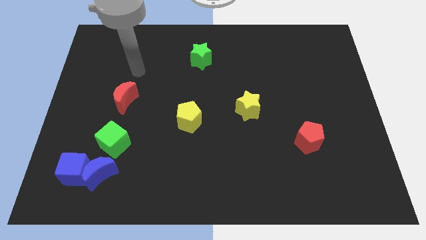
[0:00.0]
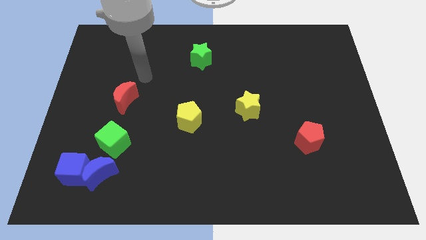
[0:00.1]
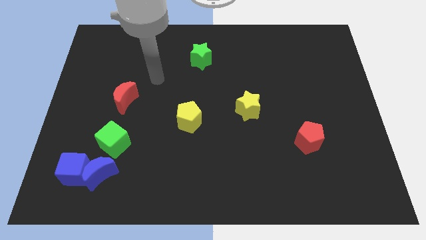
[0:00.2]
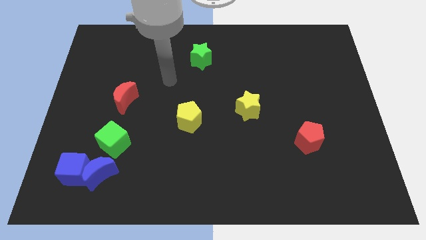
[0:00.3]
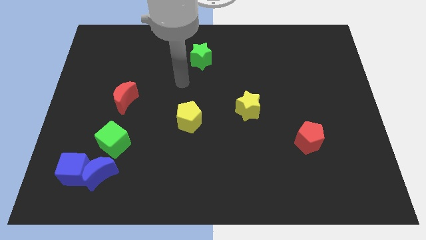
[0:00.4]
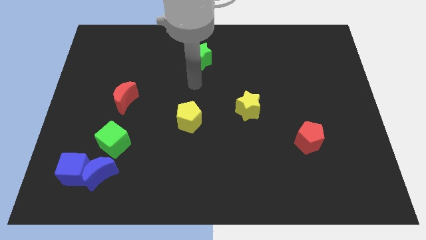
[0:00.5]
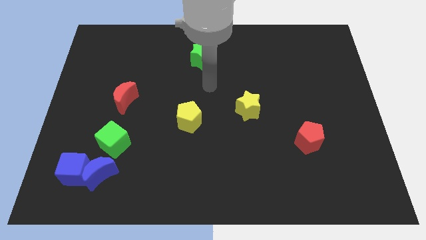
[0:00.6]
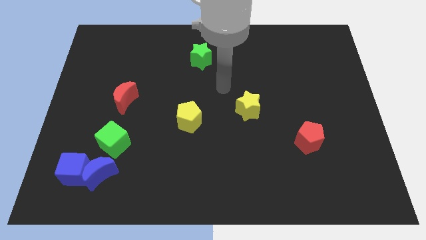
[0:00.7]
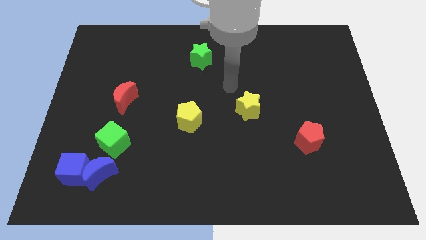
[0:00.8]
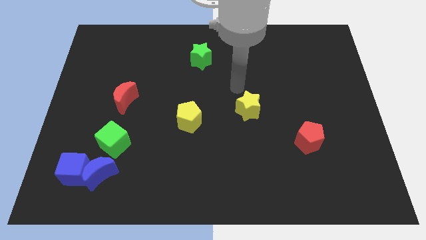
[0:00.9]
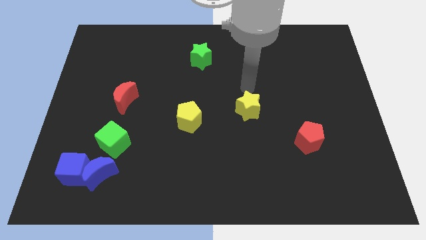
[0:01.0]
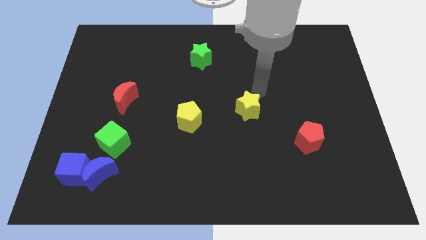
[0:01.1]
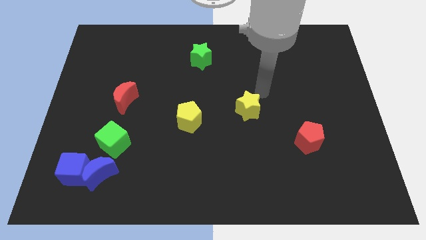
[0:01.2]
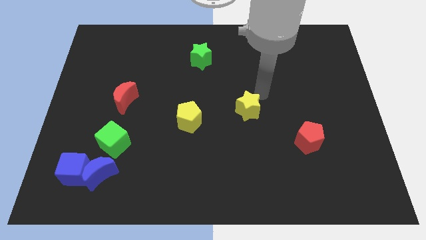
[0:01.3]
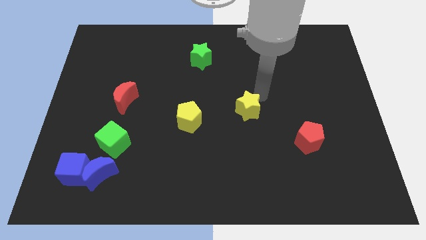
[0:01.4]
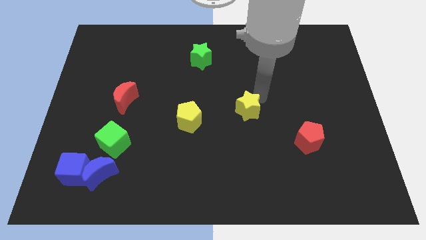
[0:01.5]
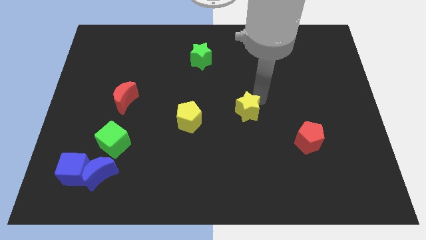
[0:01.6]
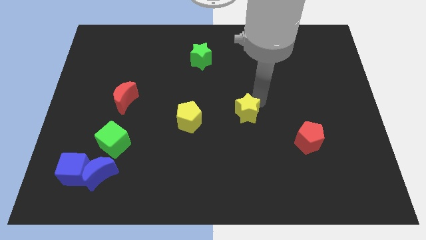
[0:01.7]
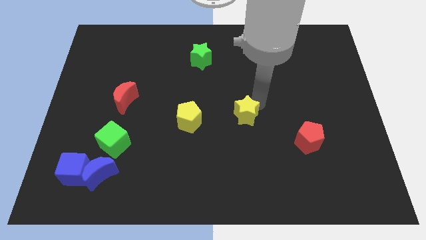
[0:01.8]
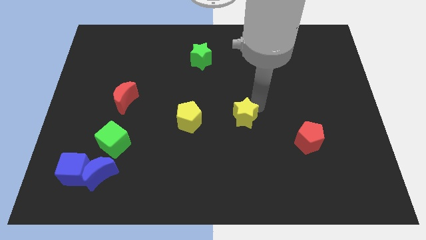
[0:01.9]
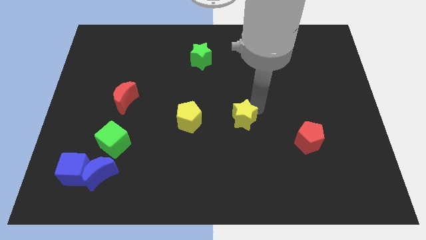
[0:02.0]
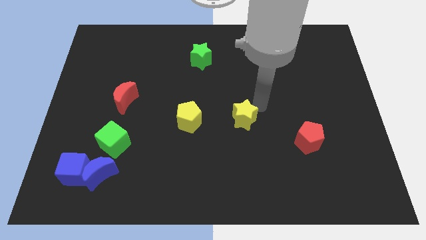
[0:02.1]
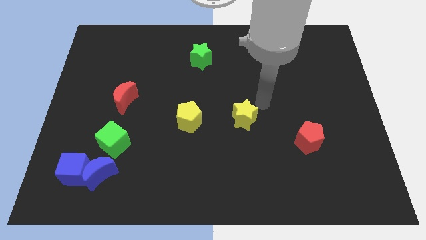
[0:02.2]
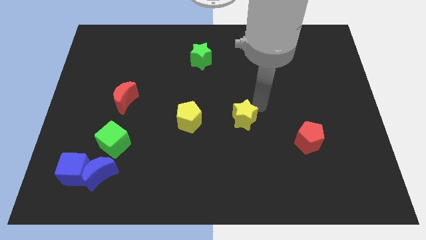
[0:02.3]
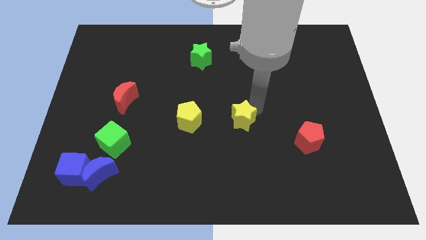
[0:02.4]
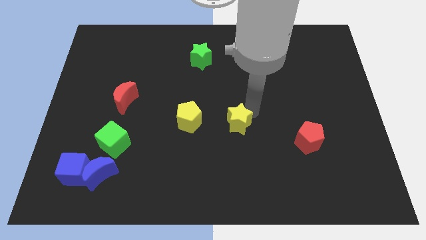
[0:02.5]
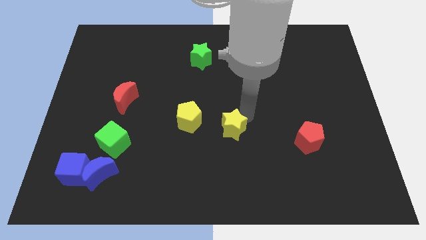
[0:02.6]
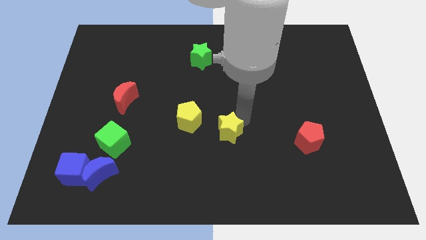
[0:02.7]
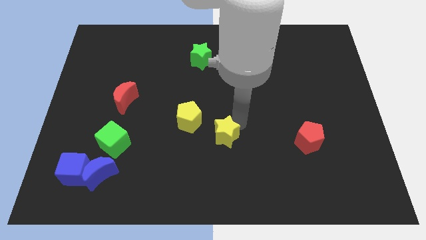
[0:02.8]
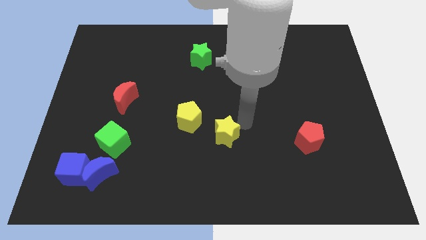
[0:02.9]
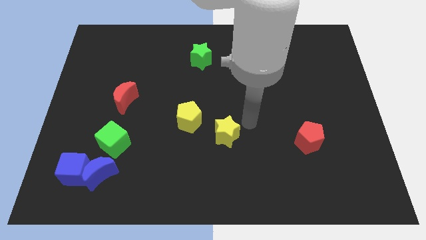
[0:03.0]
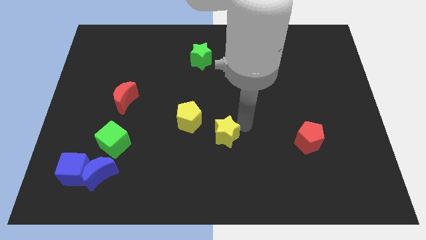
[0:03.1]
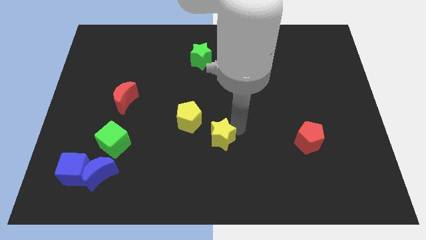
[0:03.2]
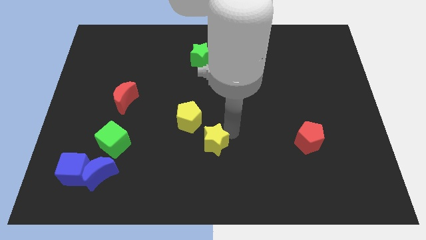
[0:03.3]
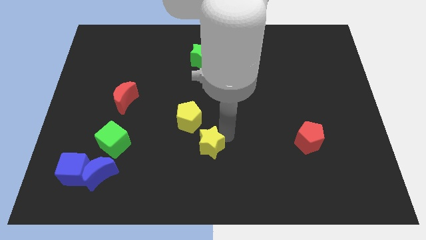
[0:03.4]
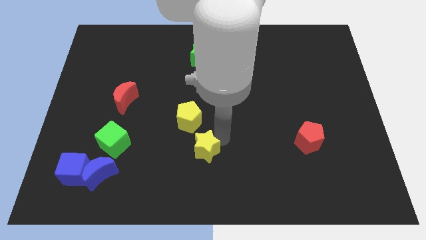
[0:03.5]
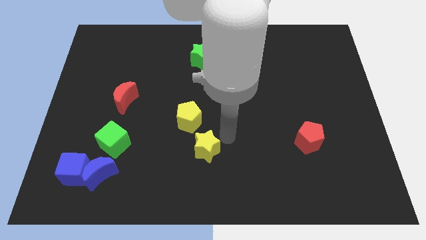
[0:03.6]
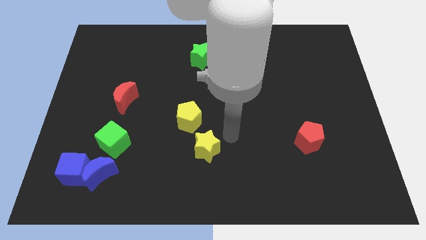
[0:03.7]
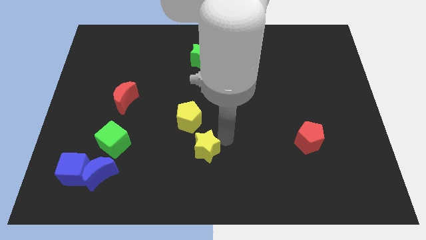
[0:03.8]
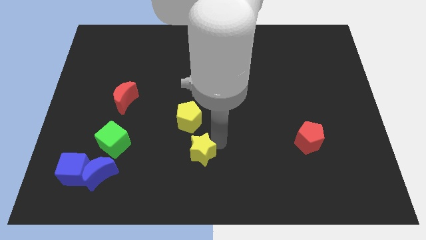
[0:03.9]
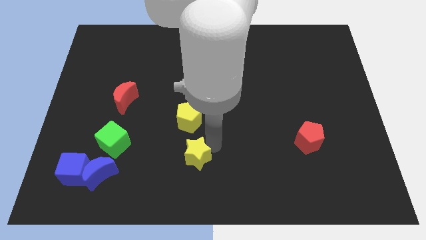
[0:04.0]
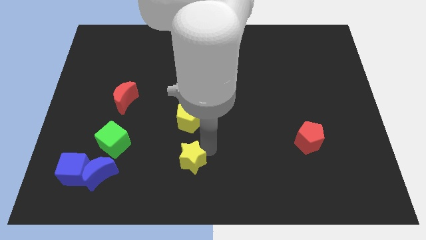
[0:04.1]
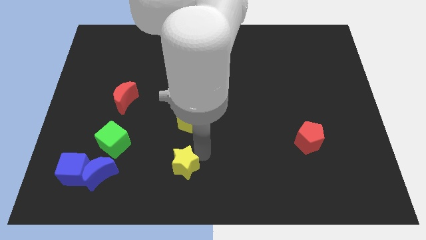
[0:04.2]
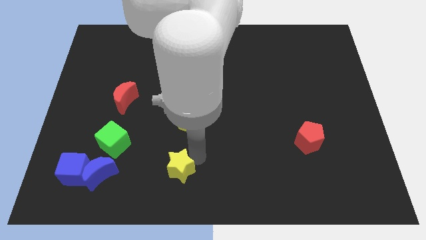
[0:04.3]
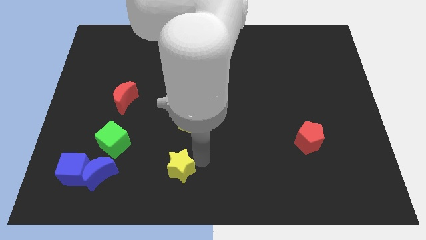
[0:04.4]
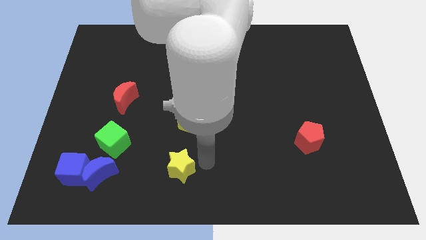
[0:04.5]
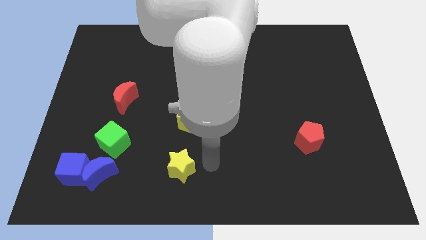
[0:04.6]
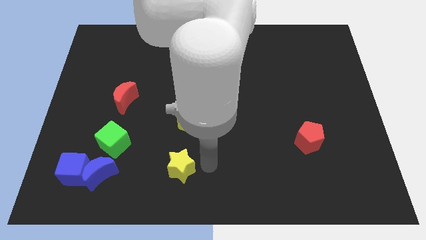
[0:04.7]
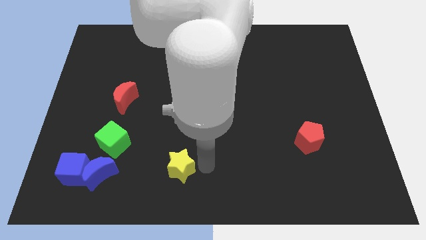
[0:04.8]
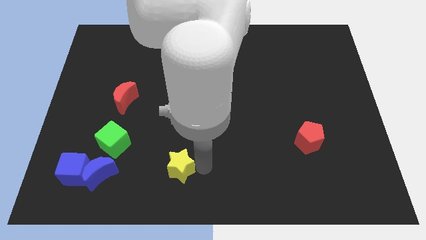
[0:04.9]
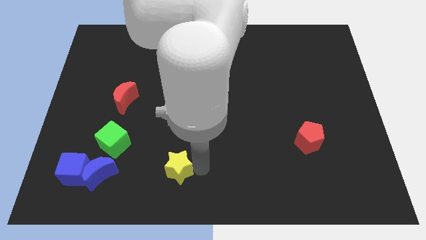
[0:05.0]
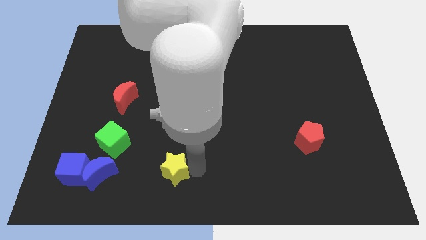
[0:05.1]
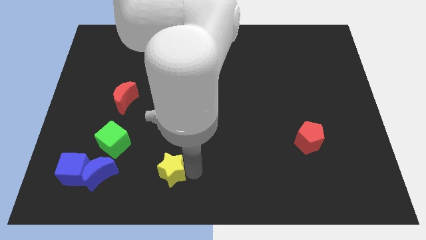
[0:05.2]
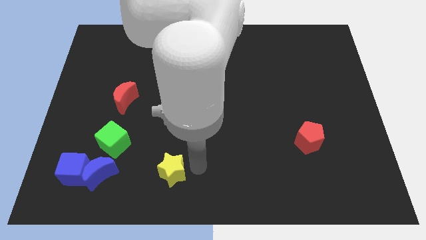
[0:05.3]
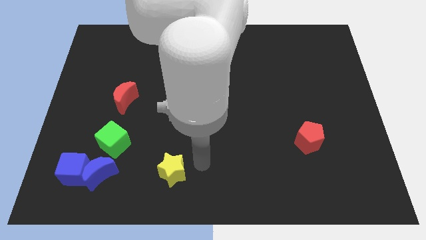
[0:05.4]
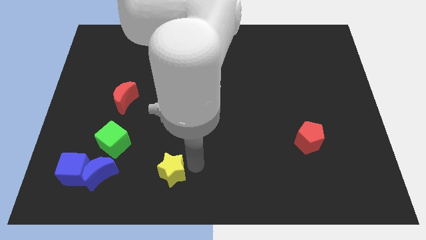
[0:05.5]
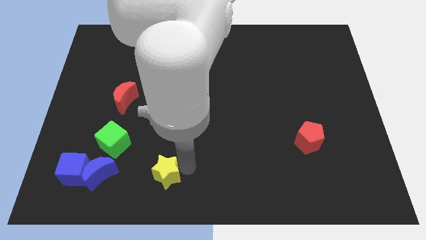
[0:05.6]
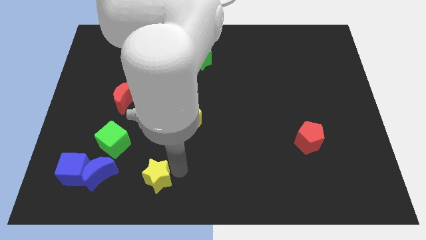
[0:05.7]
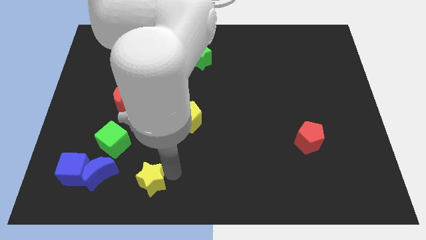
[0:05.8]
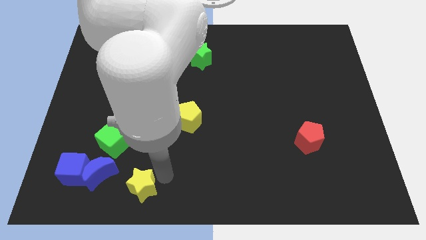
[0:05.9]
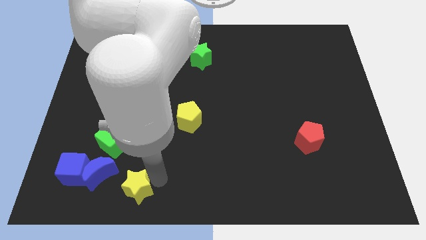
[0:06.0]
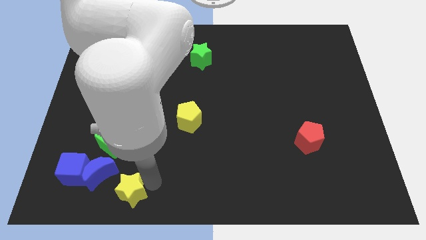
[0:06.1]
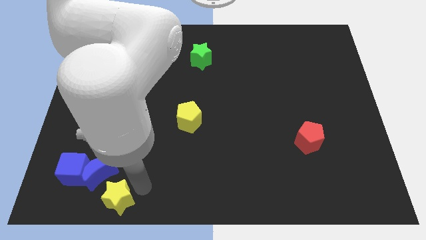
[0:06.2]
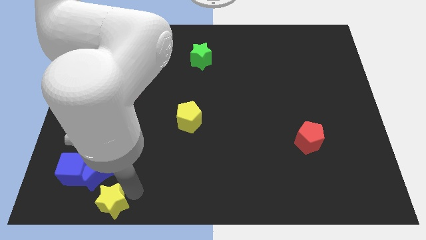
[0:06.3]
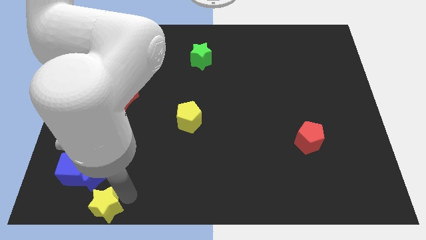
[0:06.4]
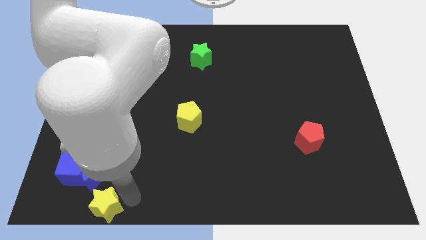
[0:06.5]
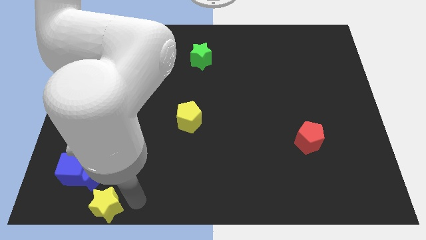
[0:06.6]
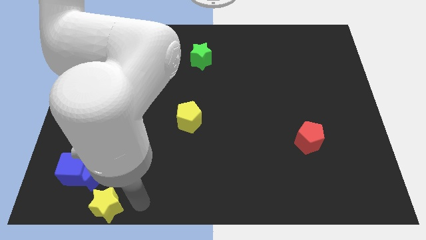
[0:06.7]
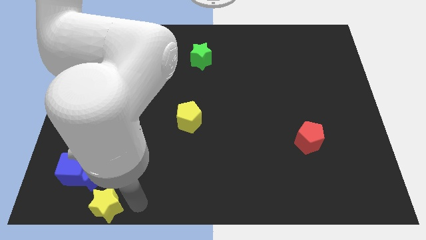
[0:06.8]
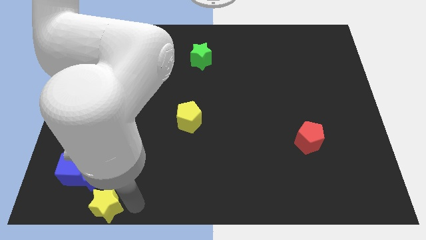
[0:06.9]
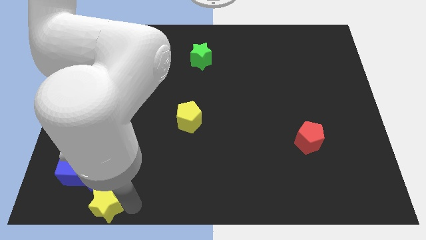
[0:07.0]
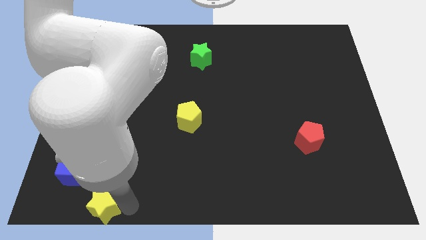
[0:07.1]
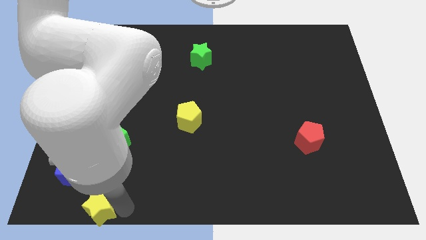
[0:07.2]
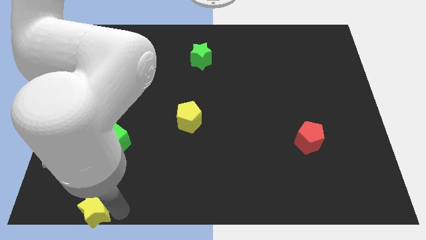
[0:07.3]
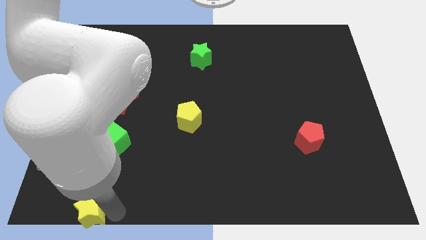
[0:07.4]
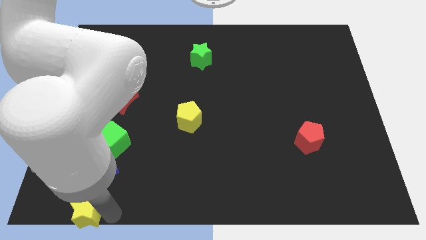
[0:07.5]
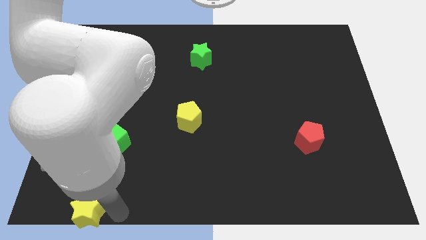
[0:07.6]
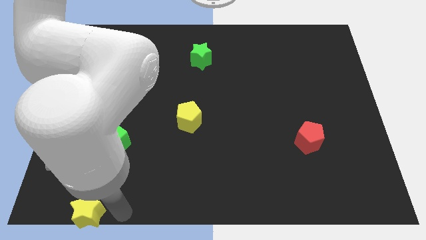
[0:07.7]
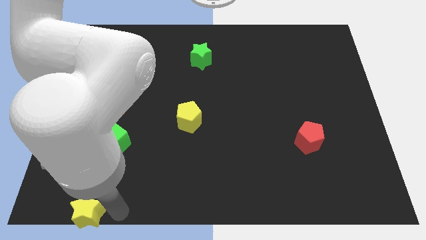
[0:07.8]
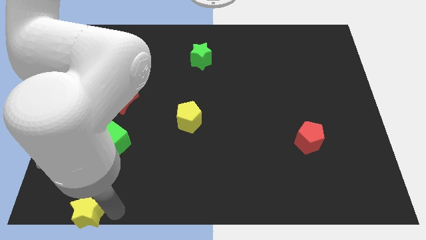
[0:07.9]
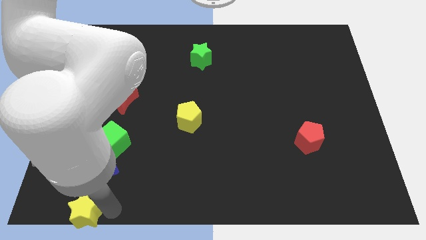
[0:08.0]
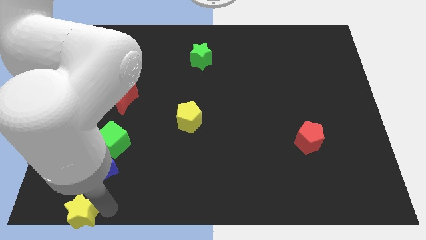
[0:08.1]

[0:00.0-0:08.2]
move the yellow star to the lower left corner
